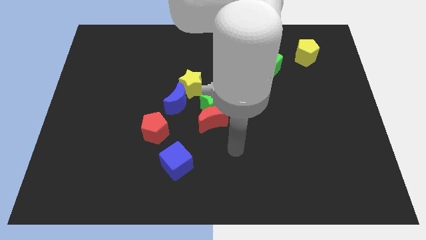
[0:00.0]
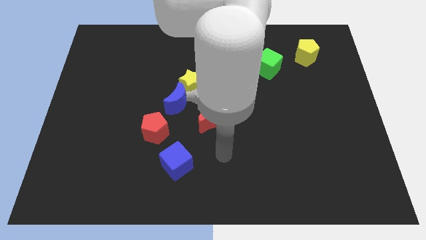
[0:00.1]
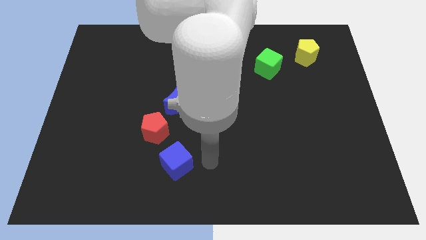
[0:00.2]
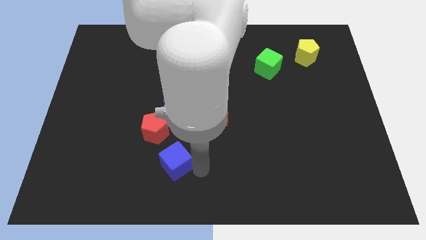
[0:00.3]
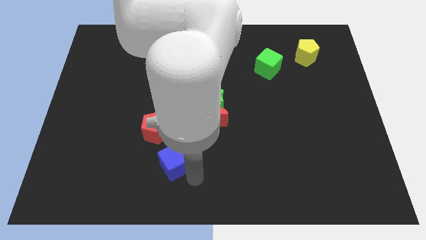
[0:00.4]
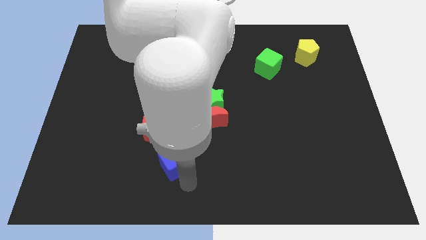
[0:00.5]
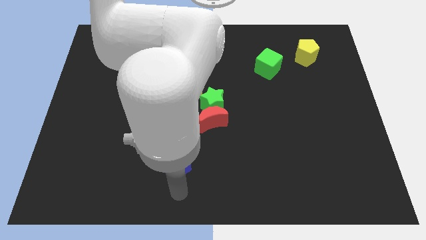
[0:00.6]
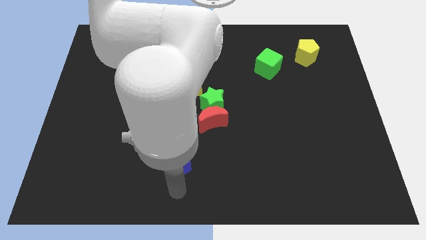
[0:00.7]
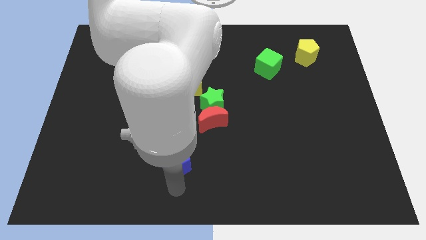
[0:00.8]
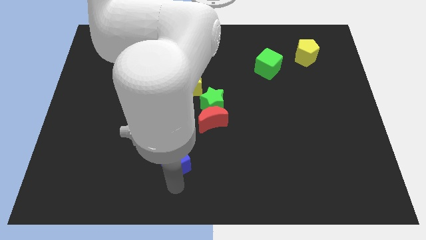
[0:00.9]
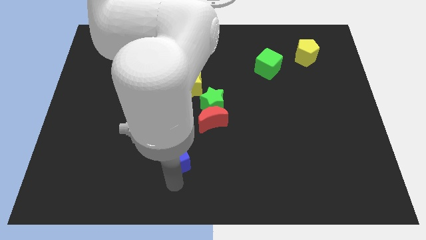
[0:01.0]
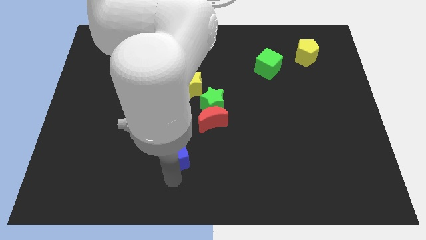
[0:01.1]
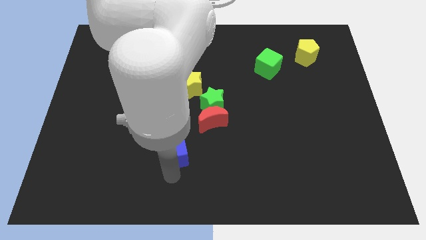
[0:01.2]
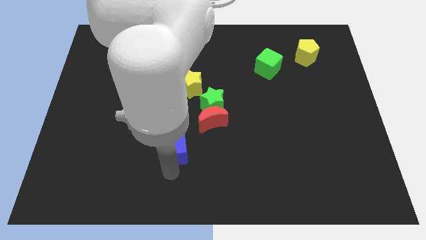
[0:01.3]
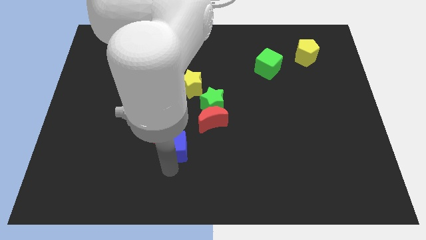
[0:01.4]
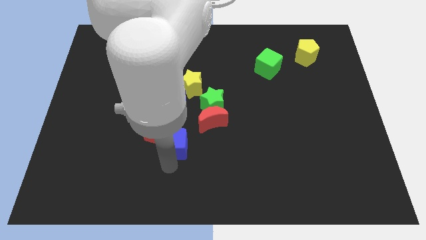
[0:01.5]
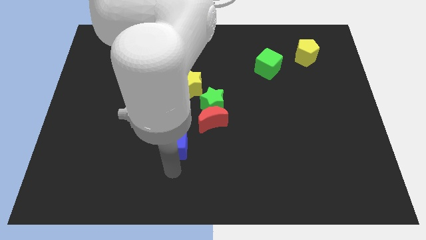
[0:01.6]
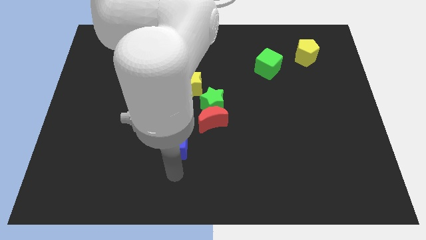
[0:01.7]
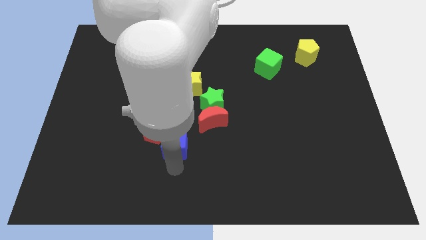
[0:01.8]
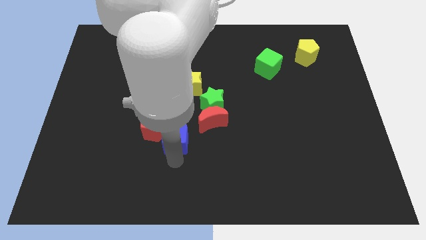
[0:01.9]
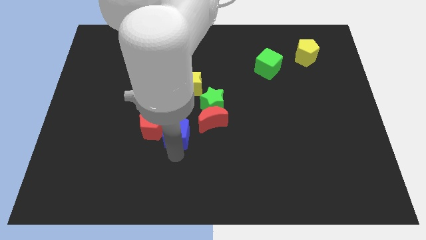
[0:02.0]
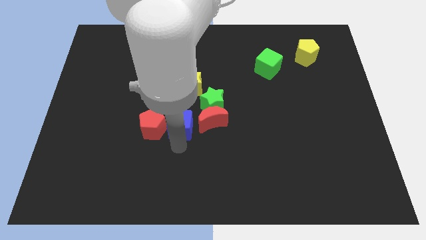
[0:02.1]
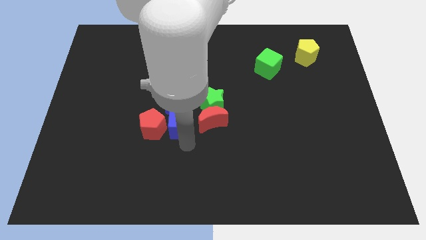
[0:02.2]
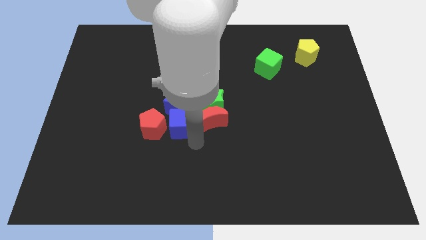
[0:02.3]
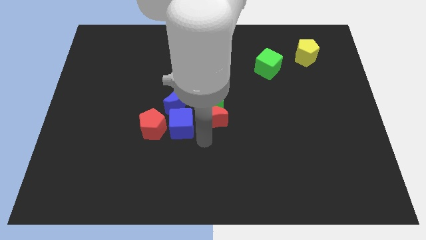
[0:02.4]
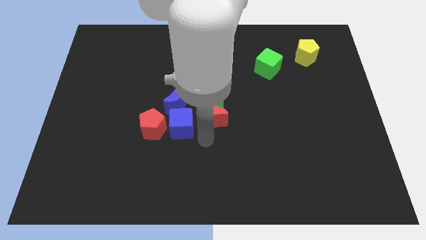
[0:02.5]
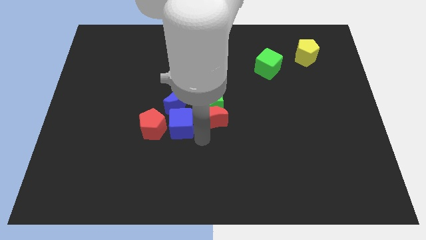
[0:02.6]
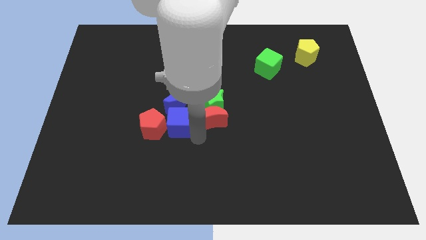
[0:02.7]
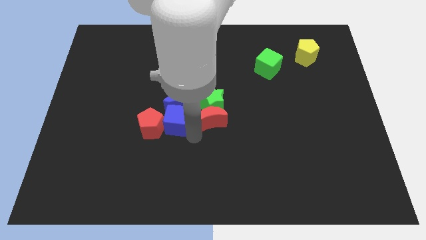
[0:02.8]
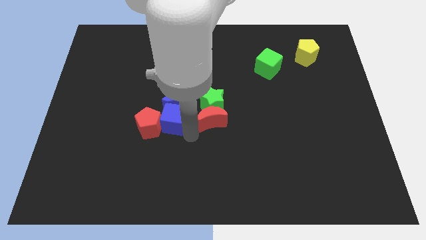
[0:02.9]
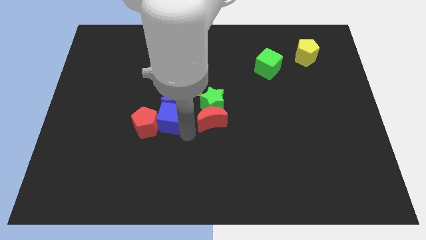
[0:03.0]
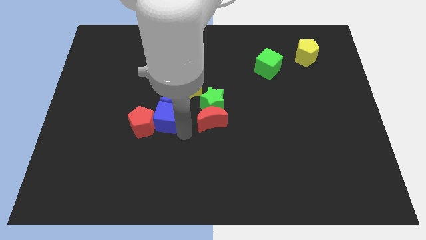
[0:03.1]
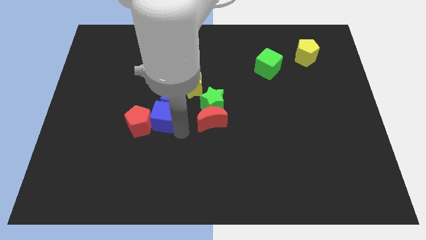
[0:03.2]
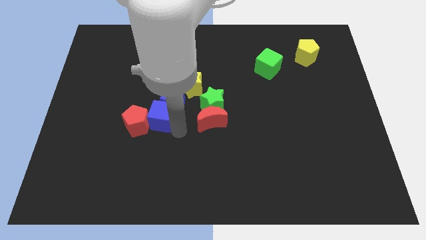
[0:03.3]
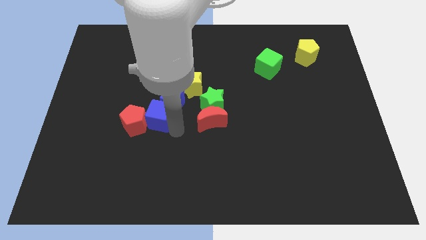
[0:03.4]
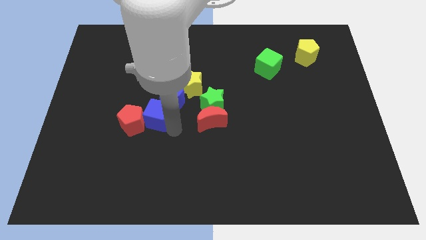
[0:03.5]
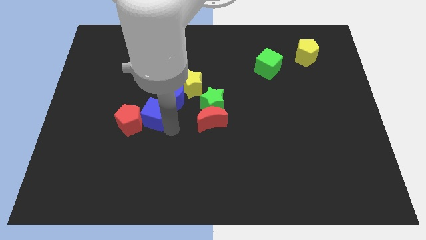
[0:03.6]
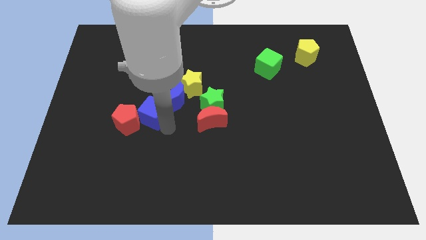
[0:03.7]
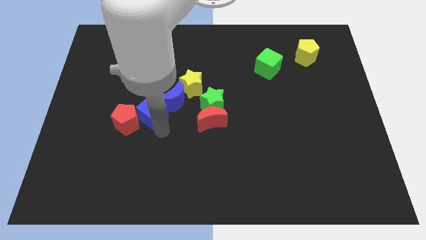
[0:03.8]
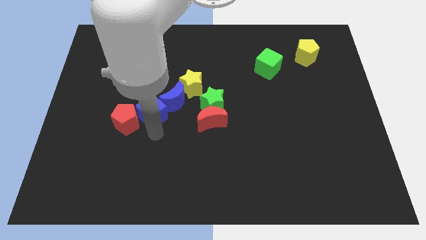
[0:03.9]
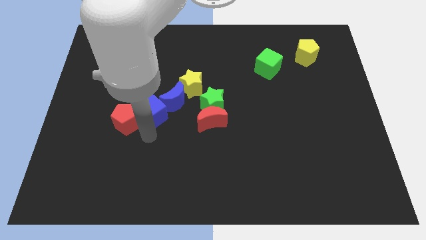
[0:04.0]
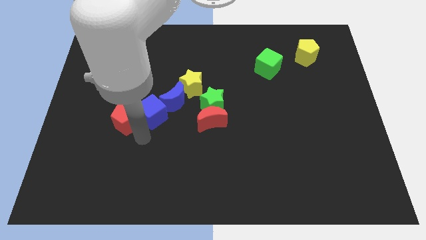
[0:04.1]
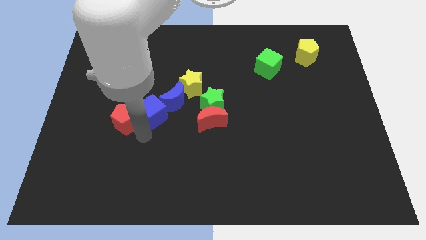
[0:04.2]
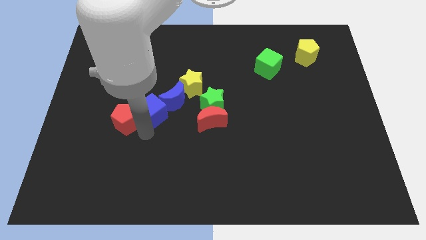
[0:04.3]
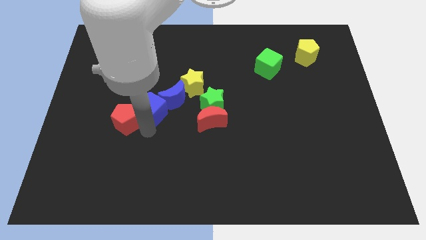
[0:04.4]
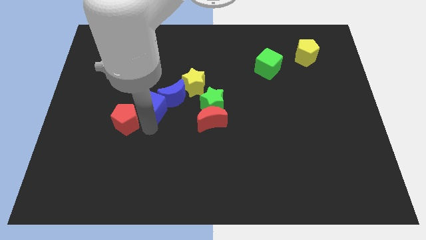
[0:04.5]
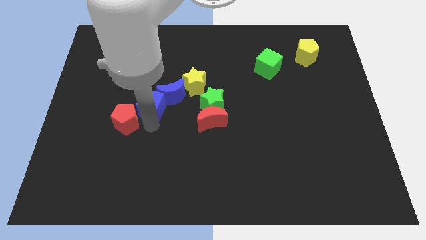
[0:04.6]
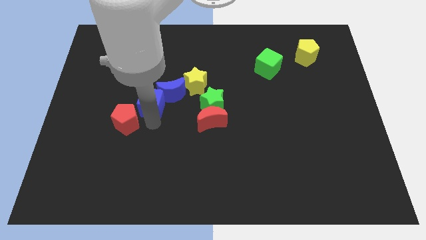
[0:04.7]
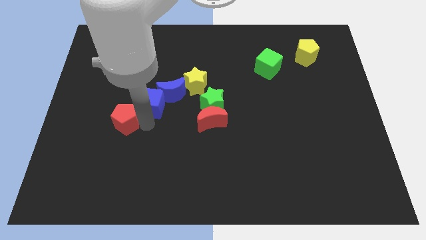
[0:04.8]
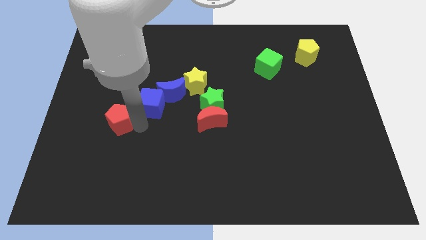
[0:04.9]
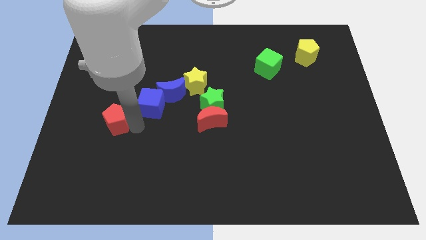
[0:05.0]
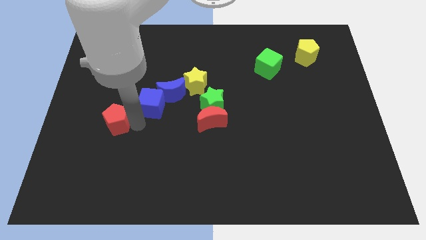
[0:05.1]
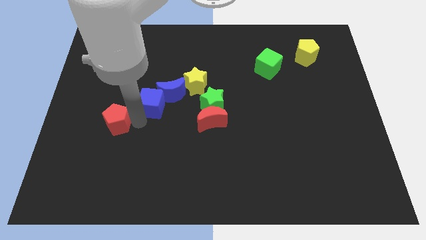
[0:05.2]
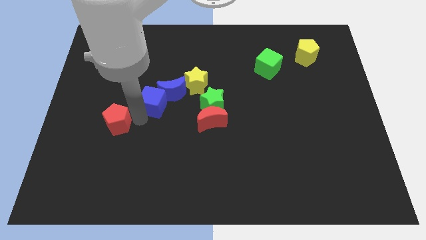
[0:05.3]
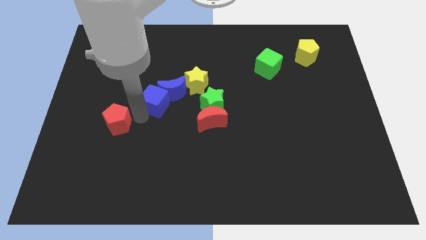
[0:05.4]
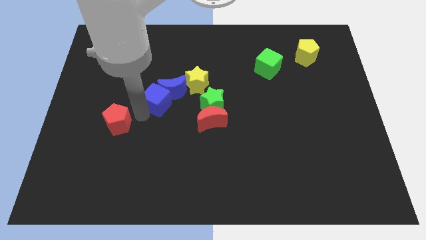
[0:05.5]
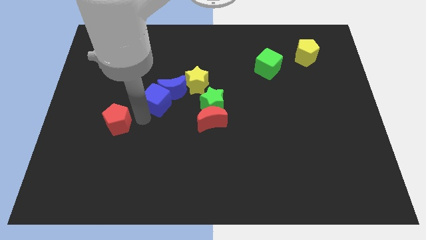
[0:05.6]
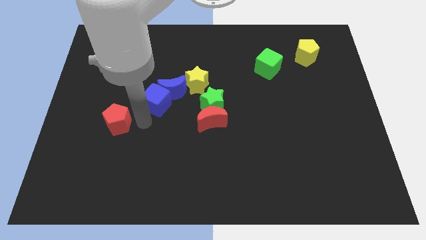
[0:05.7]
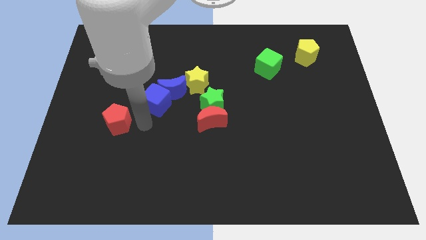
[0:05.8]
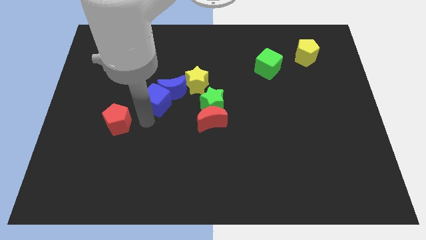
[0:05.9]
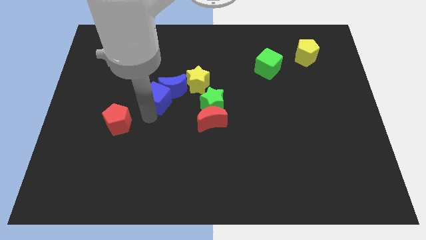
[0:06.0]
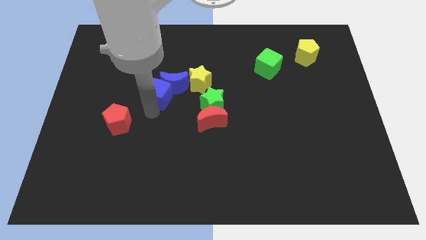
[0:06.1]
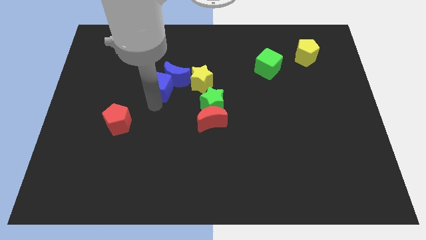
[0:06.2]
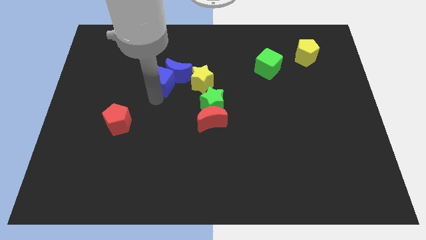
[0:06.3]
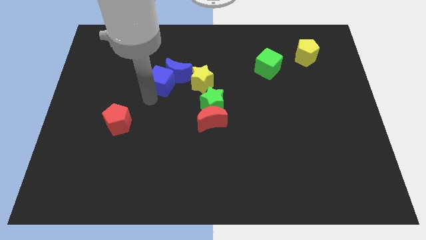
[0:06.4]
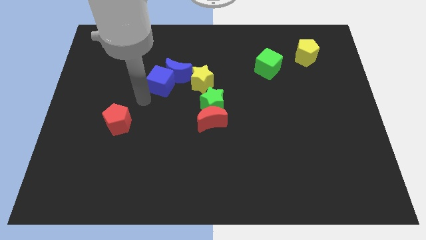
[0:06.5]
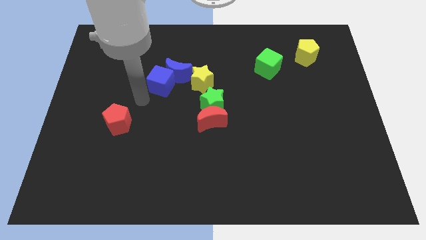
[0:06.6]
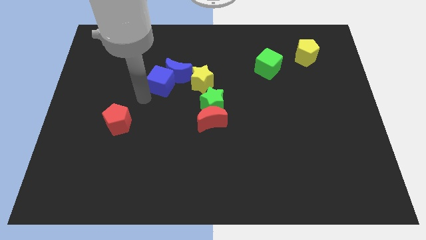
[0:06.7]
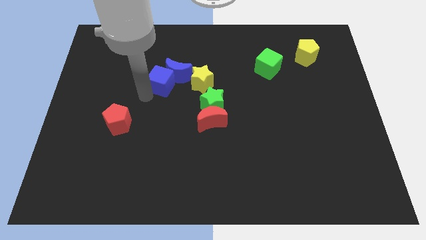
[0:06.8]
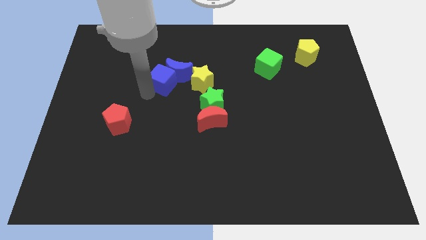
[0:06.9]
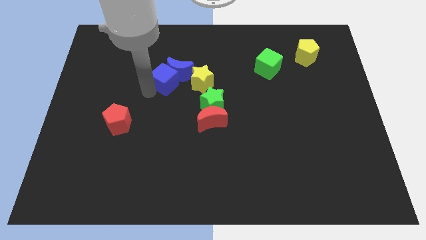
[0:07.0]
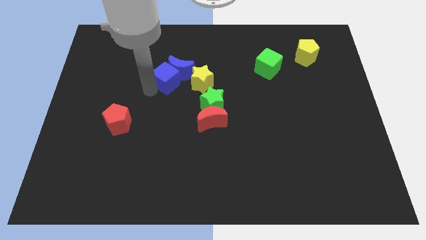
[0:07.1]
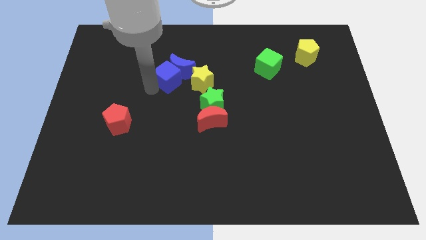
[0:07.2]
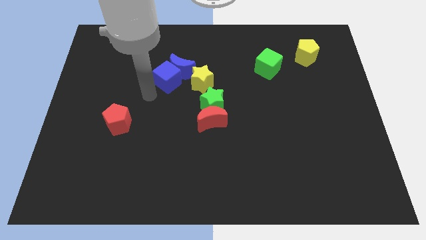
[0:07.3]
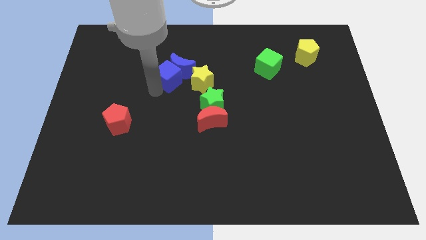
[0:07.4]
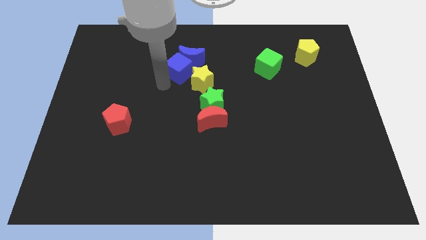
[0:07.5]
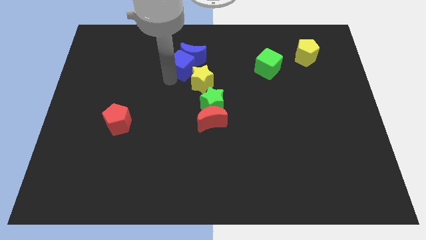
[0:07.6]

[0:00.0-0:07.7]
put the blue cube to the top side of the yellow star

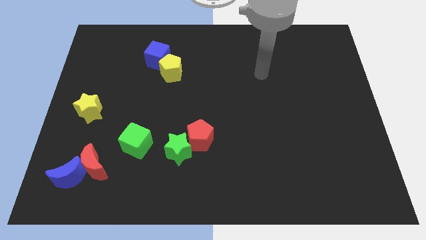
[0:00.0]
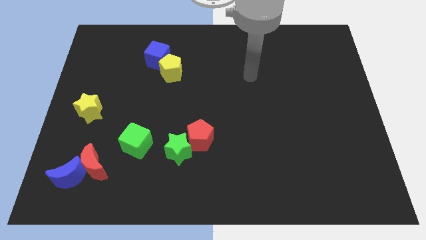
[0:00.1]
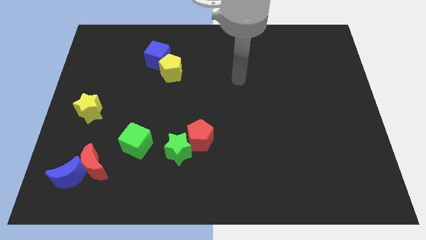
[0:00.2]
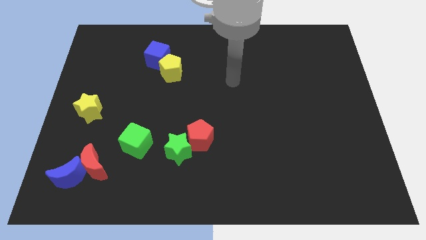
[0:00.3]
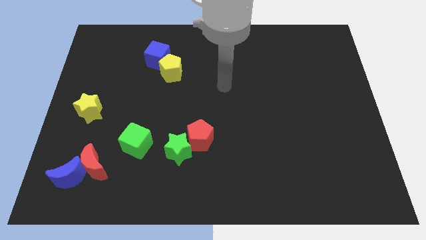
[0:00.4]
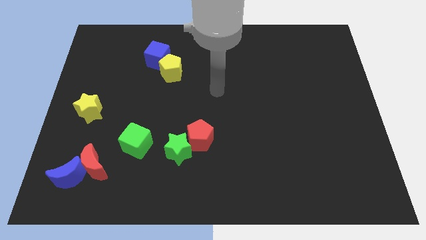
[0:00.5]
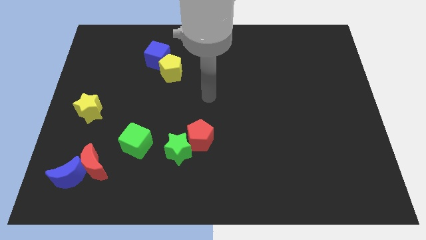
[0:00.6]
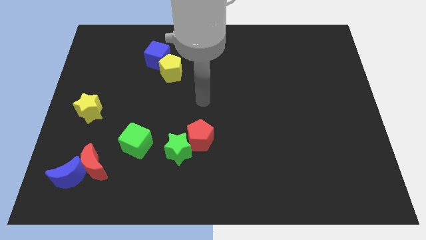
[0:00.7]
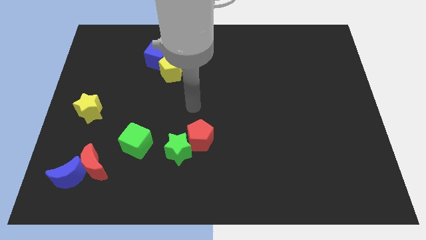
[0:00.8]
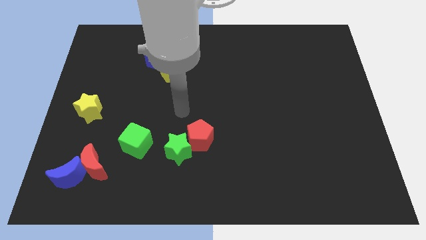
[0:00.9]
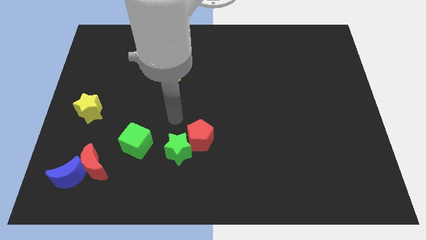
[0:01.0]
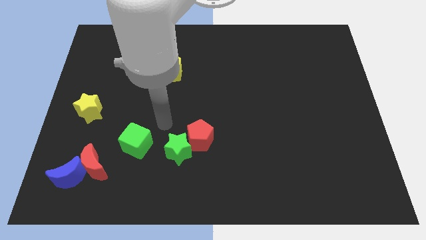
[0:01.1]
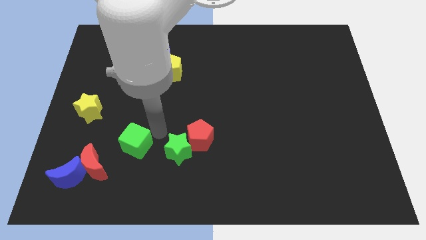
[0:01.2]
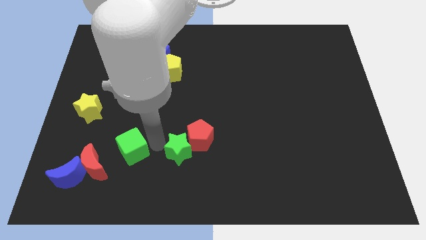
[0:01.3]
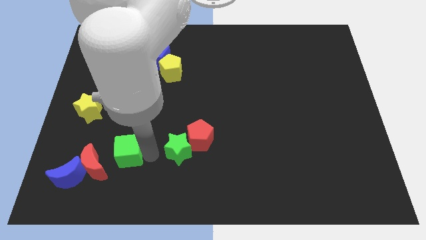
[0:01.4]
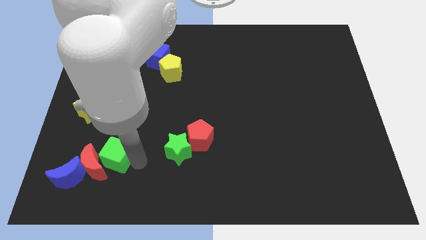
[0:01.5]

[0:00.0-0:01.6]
slide the blue moon left of the green cube
